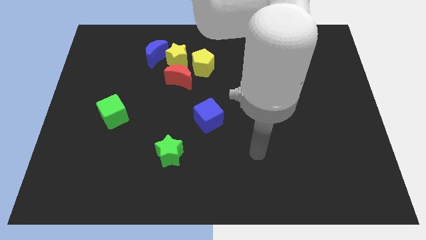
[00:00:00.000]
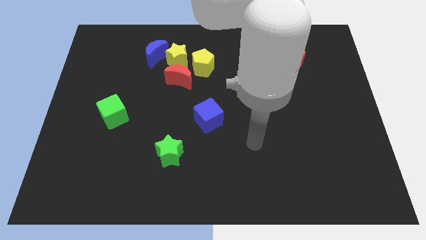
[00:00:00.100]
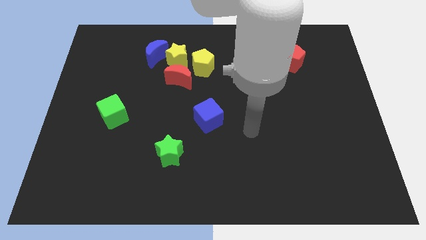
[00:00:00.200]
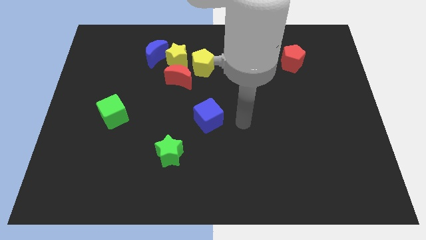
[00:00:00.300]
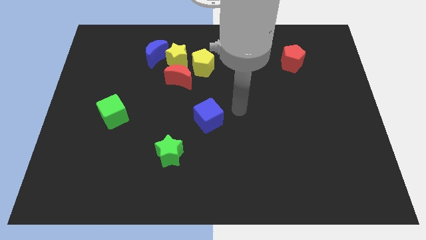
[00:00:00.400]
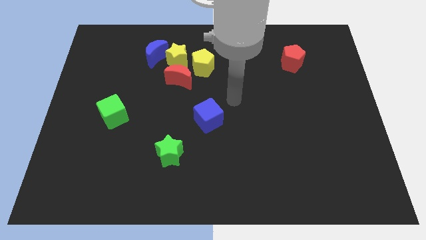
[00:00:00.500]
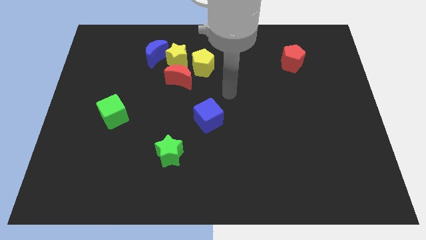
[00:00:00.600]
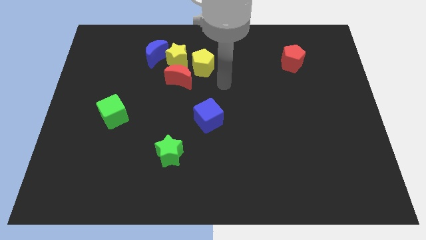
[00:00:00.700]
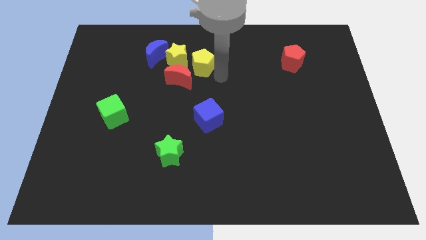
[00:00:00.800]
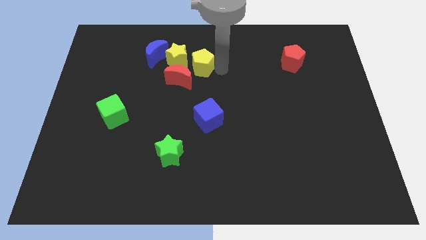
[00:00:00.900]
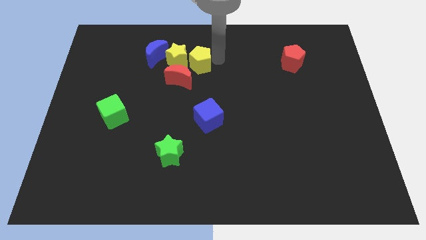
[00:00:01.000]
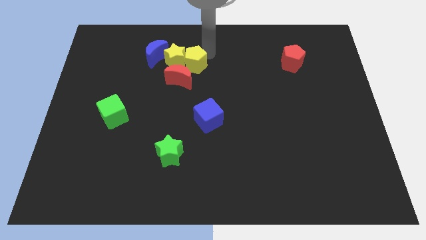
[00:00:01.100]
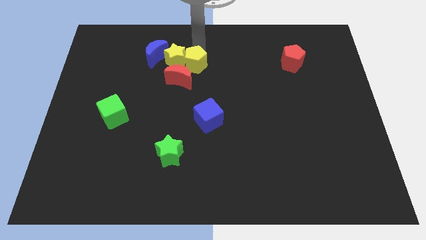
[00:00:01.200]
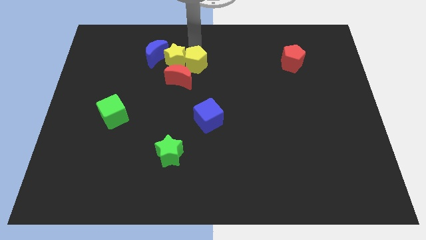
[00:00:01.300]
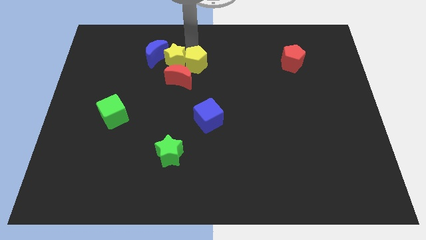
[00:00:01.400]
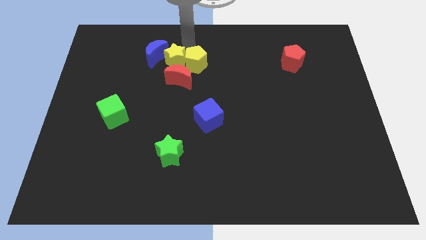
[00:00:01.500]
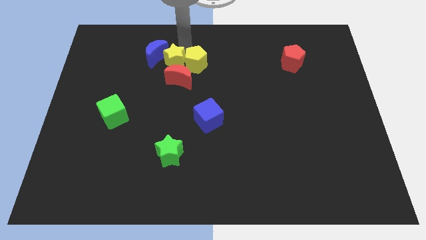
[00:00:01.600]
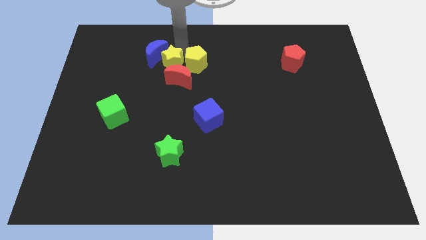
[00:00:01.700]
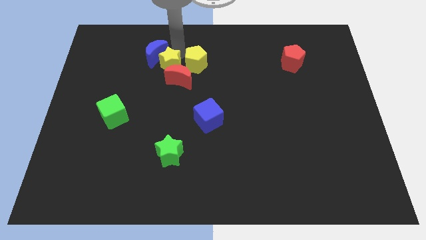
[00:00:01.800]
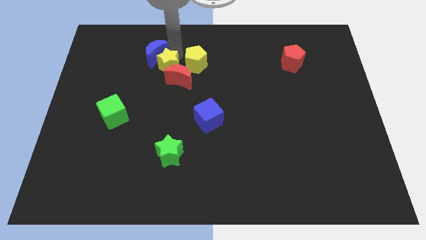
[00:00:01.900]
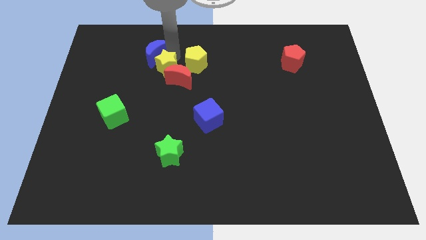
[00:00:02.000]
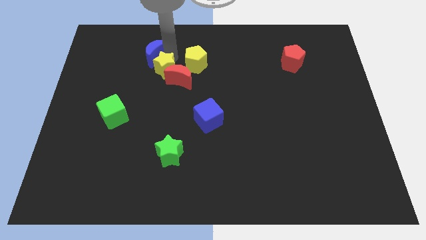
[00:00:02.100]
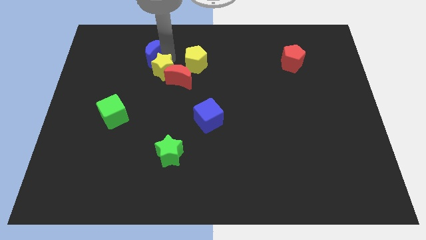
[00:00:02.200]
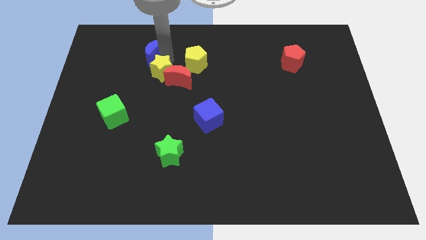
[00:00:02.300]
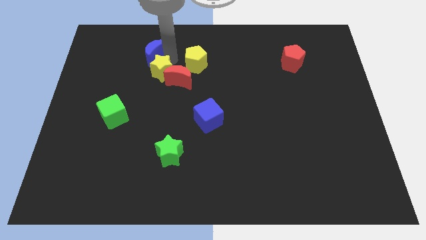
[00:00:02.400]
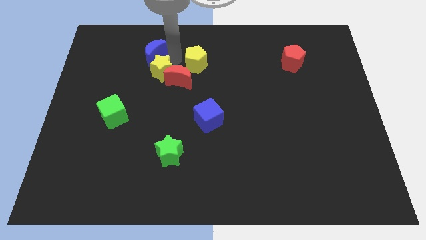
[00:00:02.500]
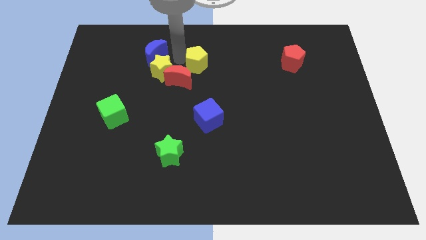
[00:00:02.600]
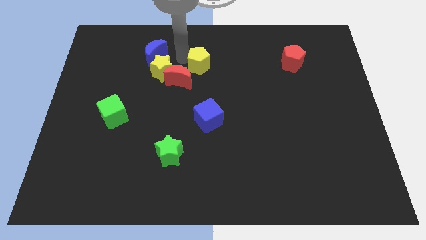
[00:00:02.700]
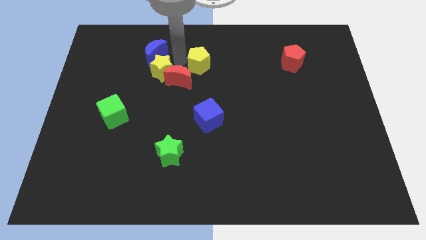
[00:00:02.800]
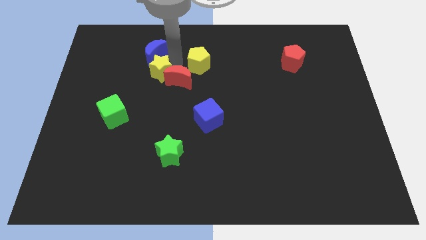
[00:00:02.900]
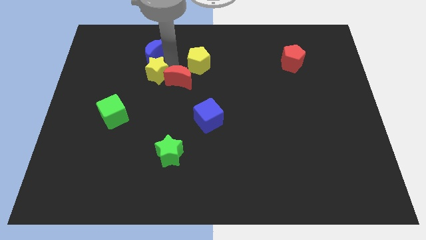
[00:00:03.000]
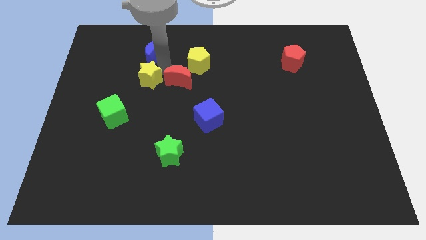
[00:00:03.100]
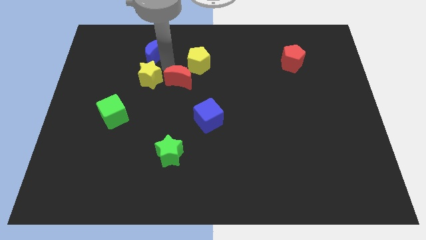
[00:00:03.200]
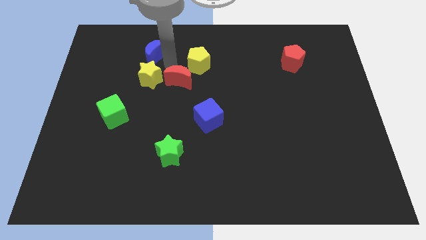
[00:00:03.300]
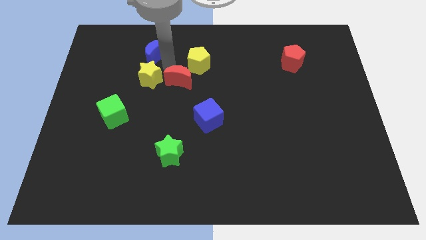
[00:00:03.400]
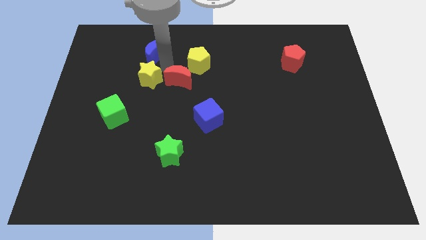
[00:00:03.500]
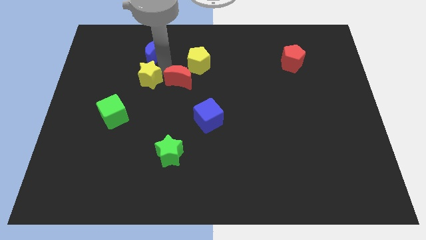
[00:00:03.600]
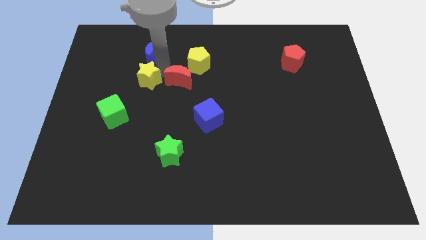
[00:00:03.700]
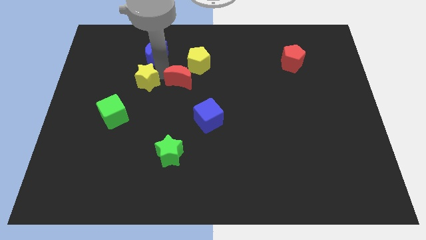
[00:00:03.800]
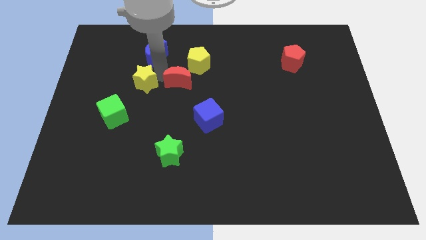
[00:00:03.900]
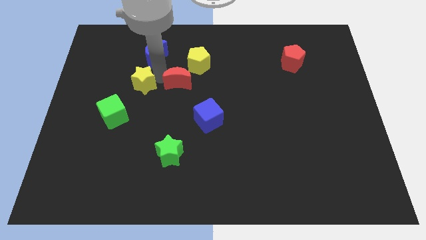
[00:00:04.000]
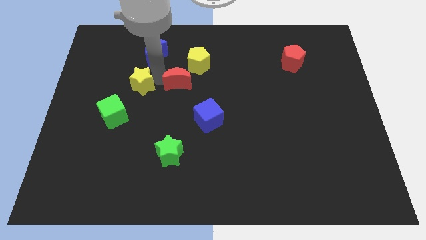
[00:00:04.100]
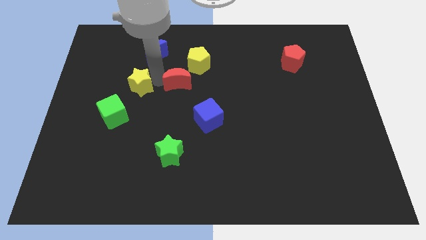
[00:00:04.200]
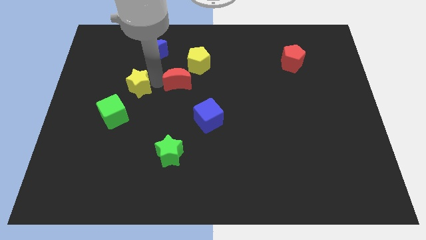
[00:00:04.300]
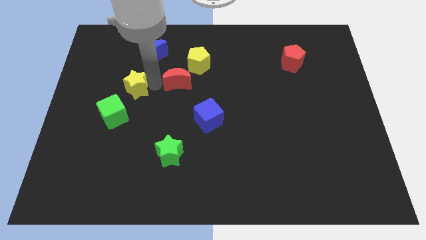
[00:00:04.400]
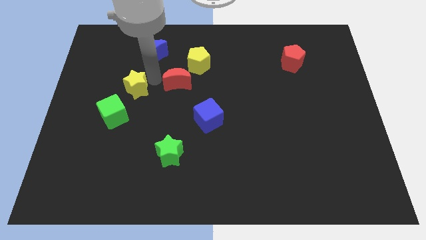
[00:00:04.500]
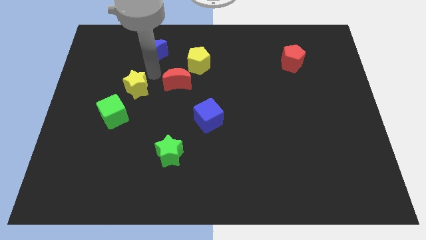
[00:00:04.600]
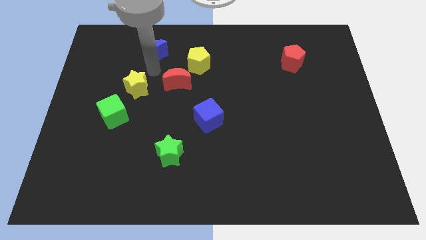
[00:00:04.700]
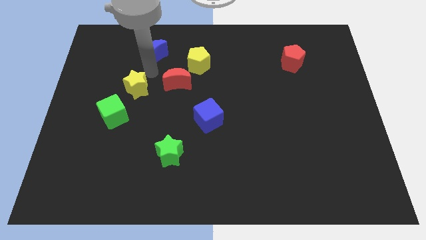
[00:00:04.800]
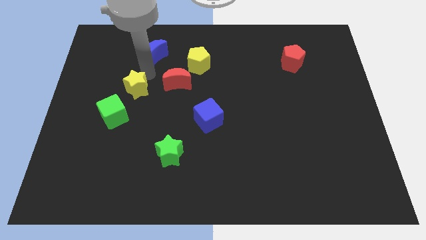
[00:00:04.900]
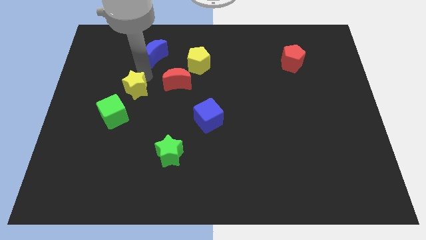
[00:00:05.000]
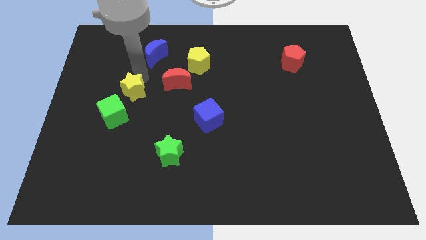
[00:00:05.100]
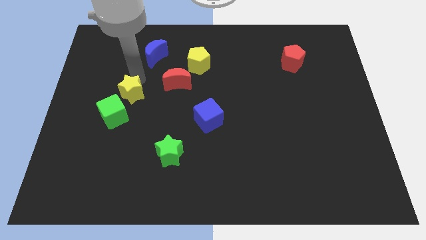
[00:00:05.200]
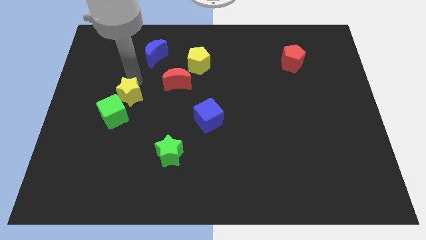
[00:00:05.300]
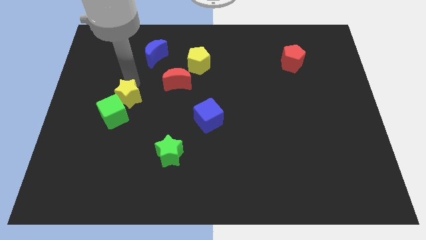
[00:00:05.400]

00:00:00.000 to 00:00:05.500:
slide the yellow star towards the green cube

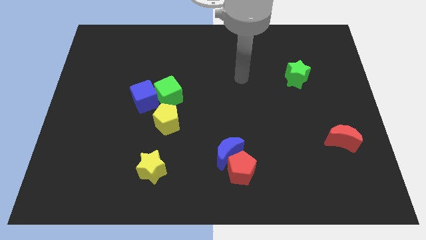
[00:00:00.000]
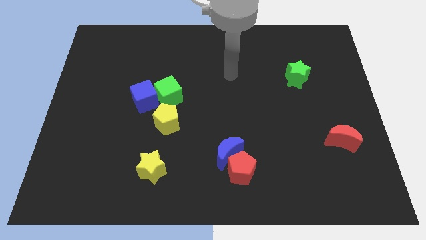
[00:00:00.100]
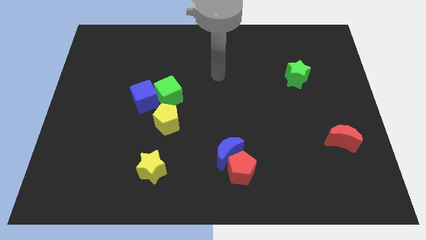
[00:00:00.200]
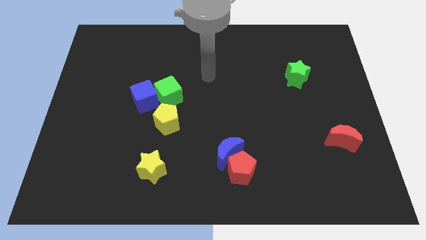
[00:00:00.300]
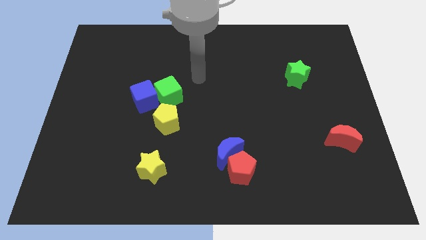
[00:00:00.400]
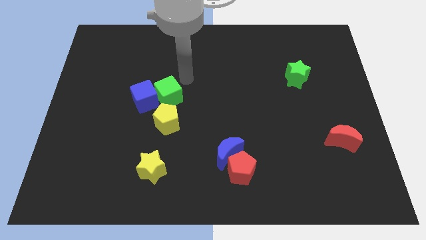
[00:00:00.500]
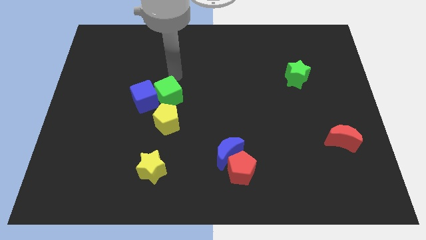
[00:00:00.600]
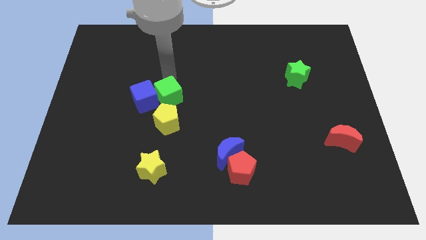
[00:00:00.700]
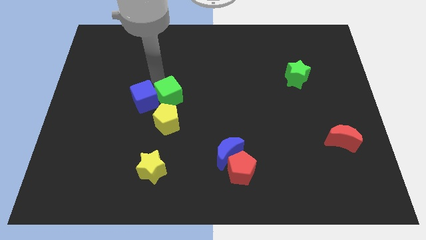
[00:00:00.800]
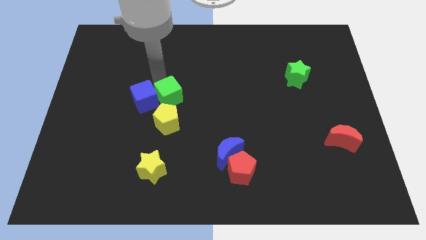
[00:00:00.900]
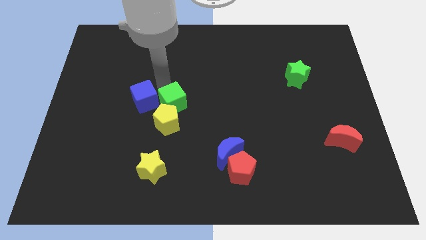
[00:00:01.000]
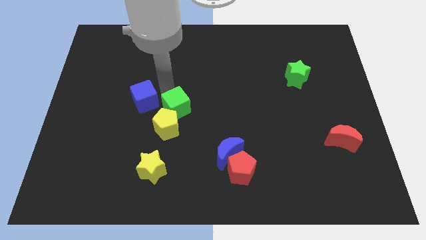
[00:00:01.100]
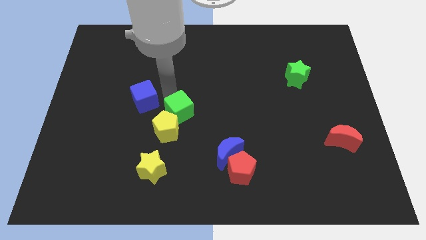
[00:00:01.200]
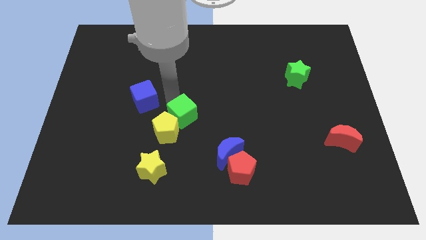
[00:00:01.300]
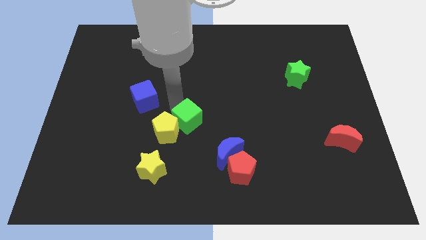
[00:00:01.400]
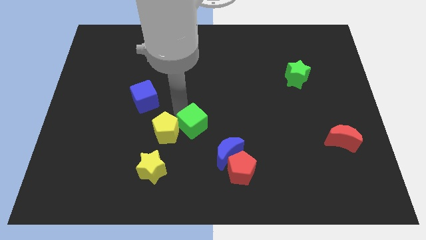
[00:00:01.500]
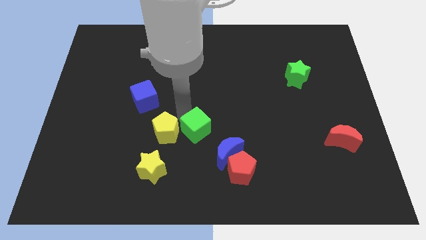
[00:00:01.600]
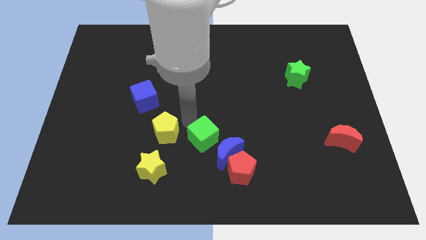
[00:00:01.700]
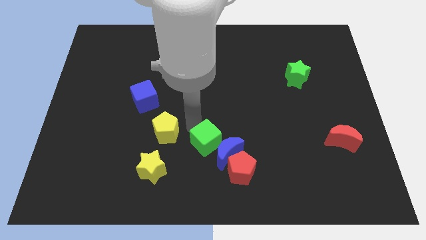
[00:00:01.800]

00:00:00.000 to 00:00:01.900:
put the green cube towards the blue moon
